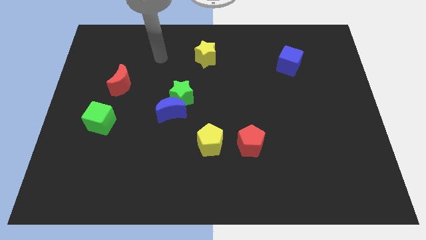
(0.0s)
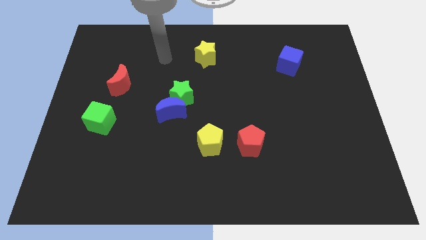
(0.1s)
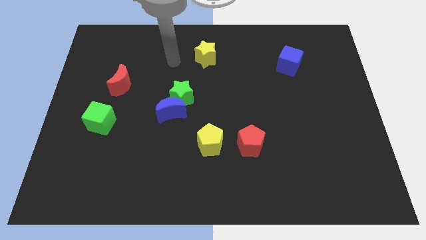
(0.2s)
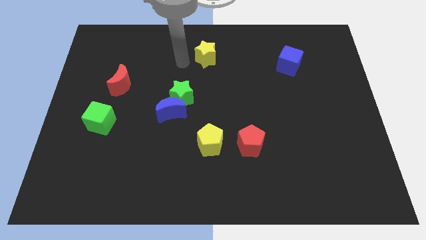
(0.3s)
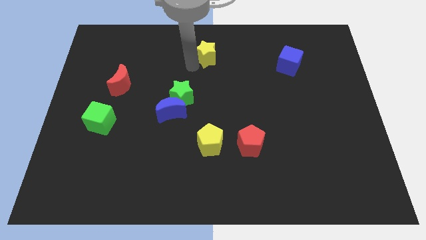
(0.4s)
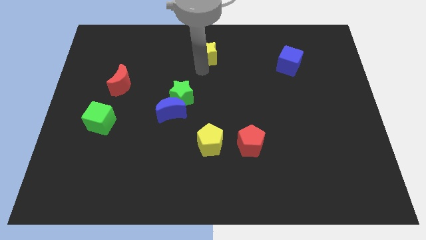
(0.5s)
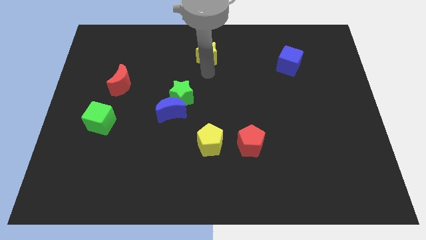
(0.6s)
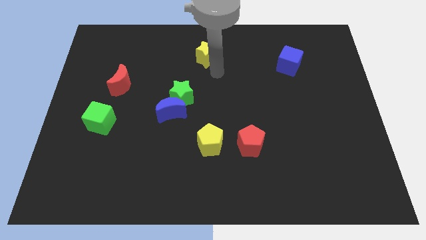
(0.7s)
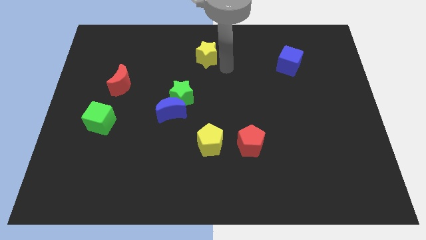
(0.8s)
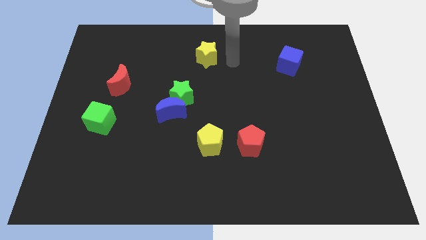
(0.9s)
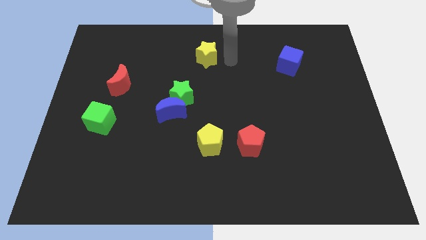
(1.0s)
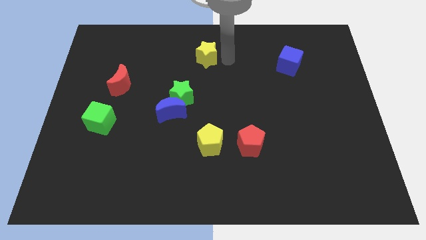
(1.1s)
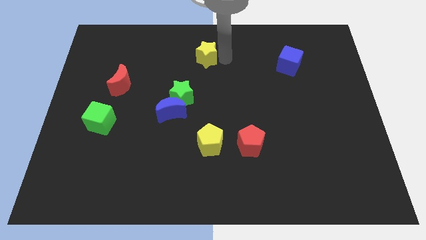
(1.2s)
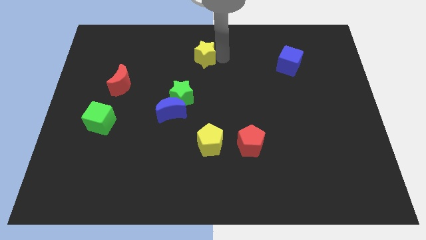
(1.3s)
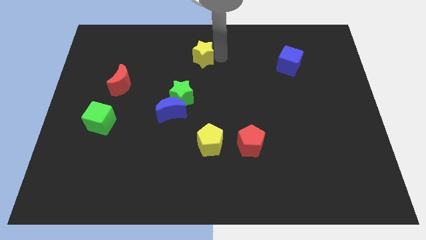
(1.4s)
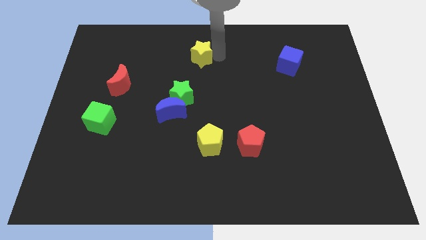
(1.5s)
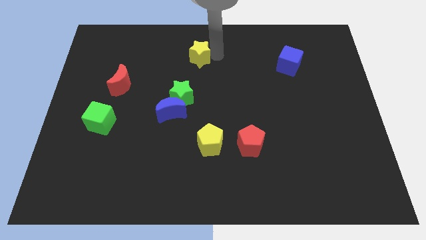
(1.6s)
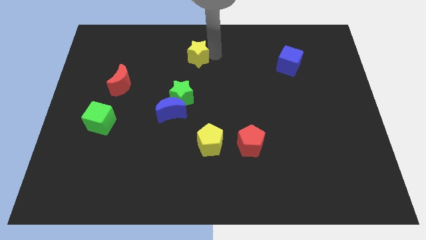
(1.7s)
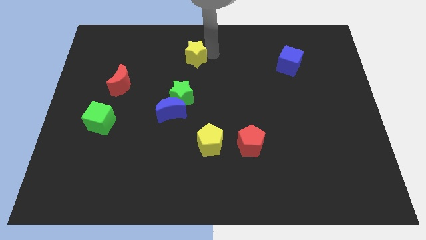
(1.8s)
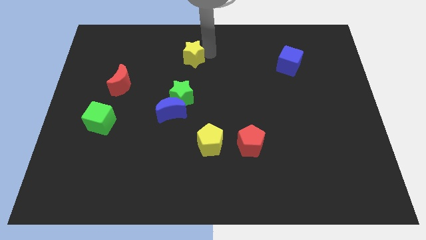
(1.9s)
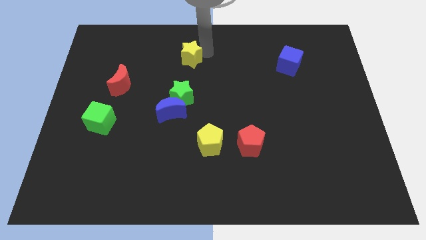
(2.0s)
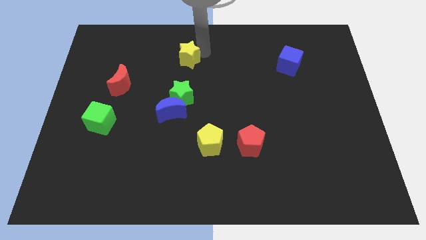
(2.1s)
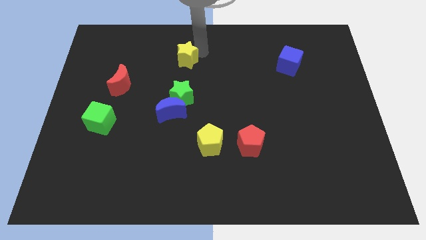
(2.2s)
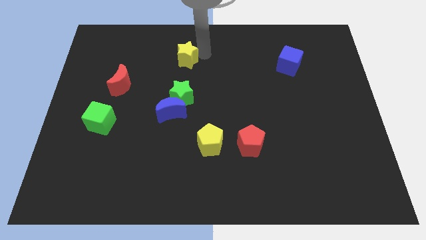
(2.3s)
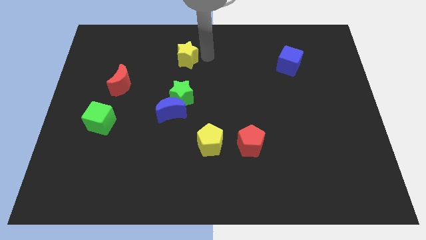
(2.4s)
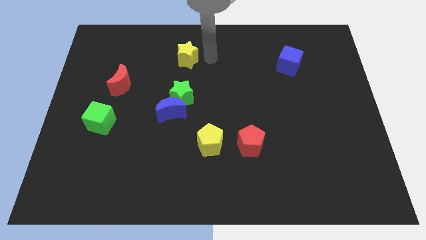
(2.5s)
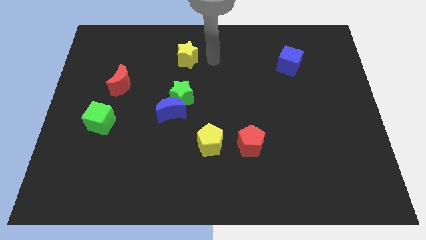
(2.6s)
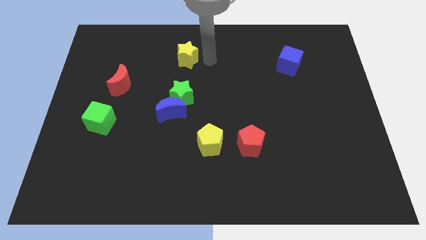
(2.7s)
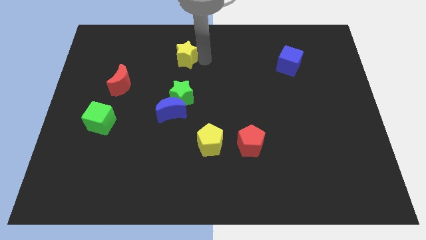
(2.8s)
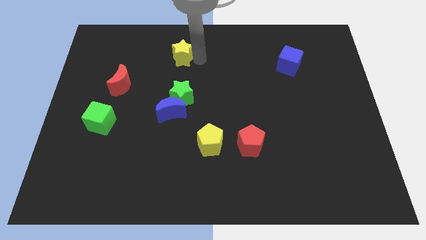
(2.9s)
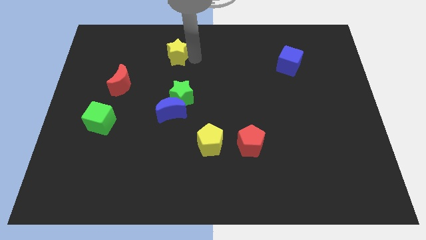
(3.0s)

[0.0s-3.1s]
move the yellow star a little bit left

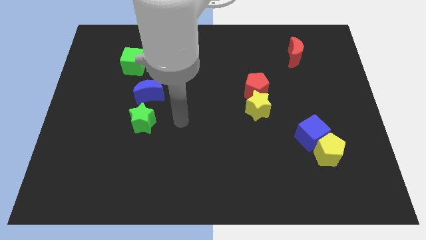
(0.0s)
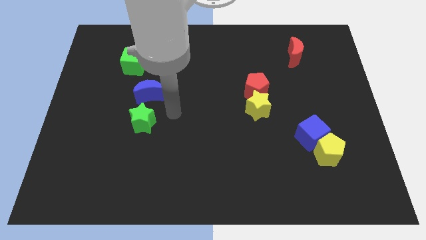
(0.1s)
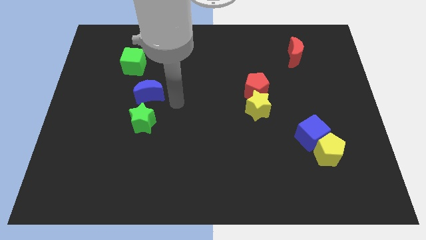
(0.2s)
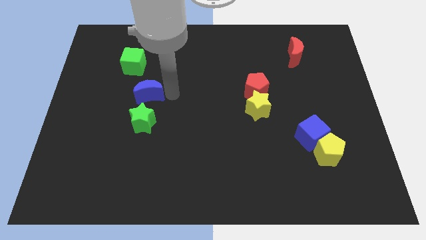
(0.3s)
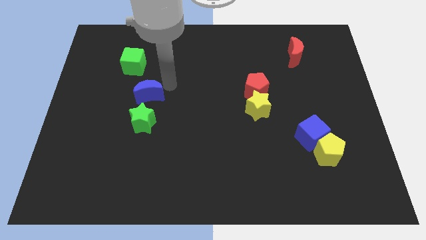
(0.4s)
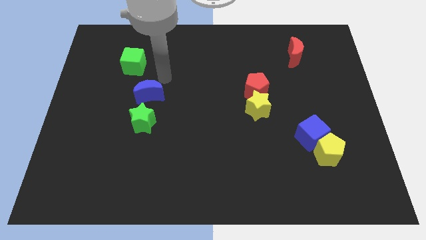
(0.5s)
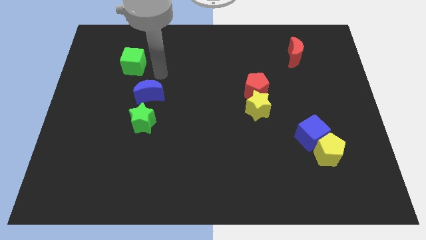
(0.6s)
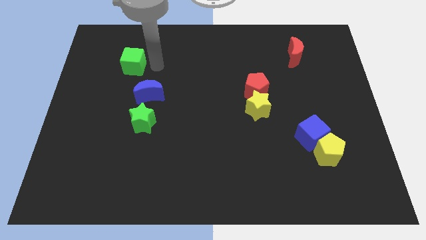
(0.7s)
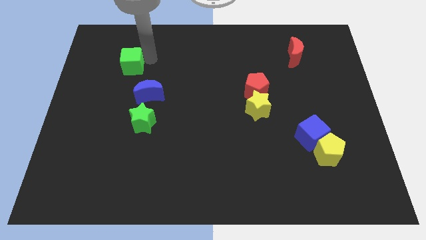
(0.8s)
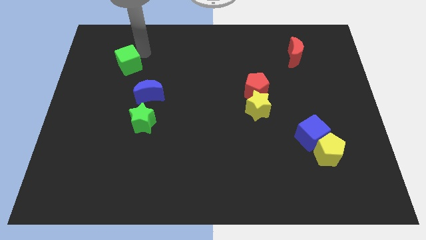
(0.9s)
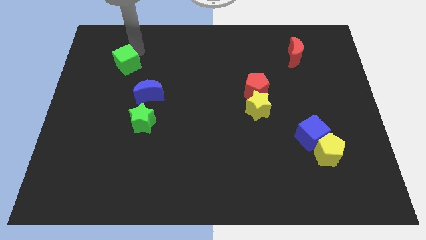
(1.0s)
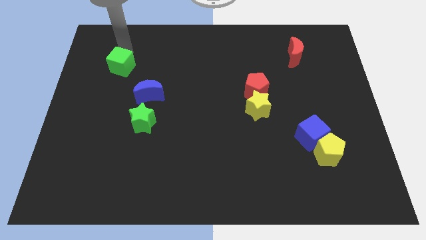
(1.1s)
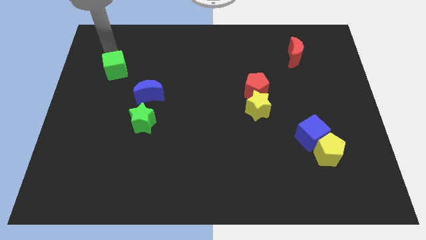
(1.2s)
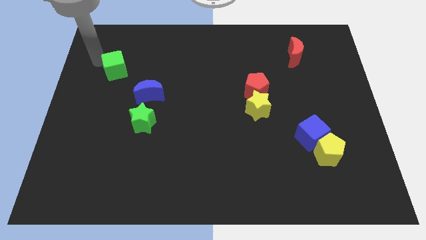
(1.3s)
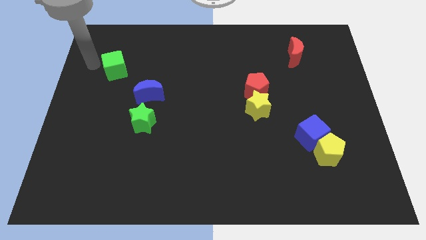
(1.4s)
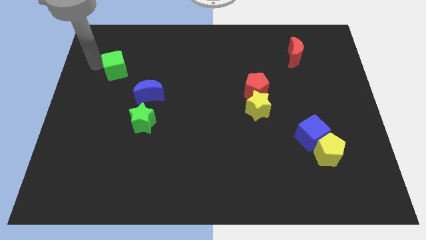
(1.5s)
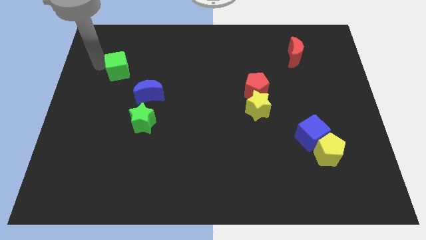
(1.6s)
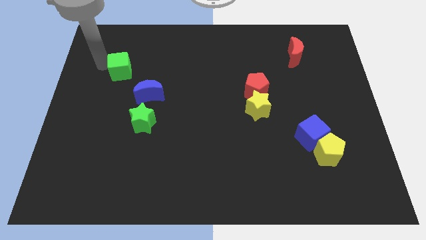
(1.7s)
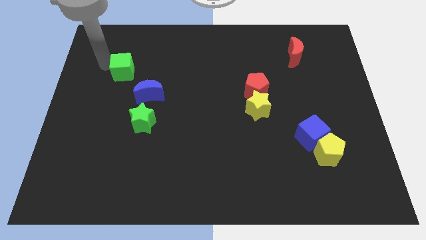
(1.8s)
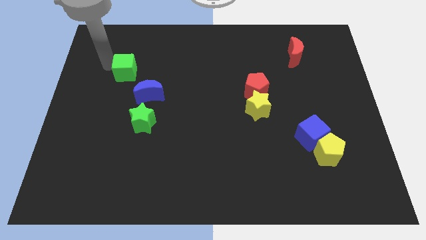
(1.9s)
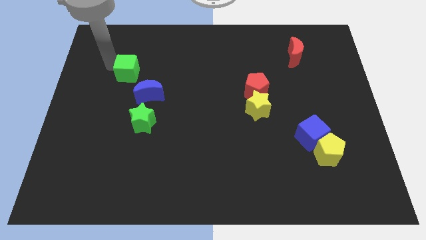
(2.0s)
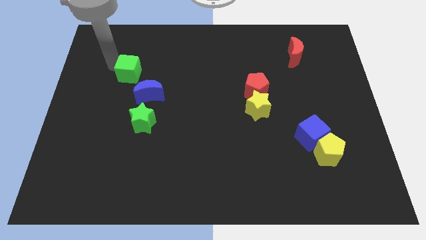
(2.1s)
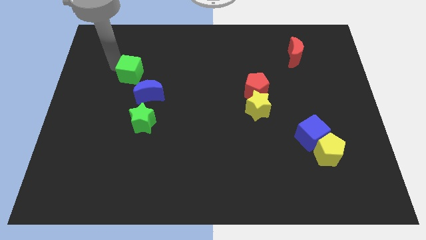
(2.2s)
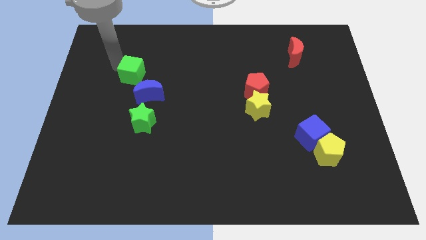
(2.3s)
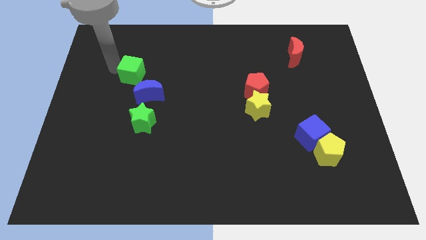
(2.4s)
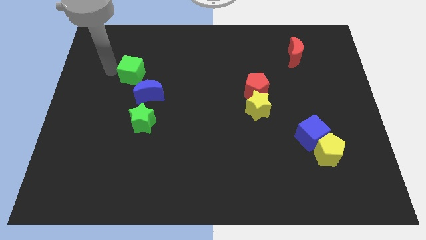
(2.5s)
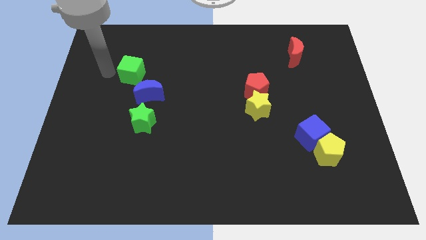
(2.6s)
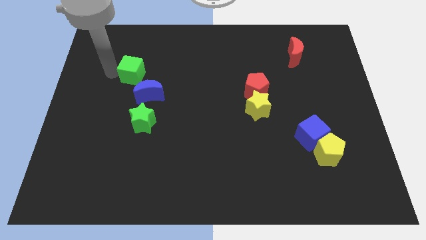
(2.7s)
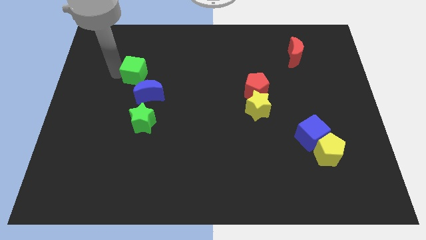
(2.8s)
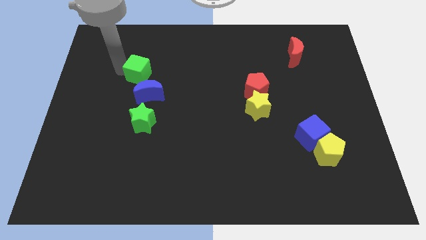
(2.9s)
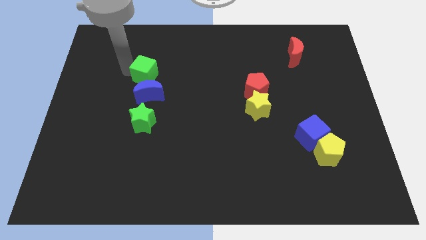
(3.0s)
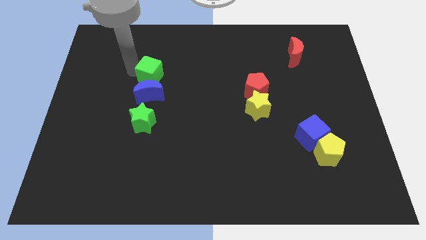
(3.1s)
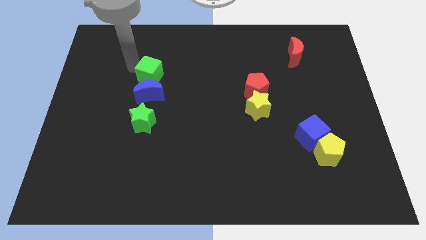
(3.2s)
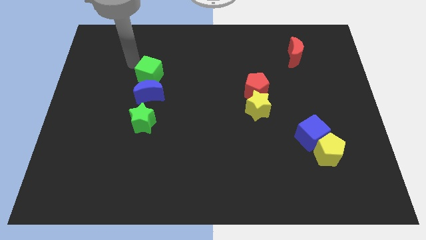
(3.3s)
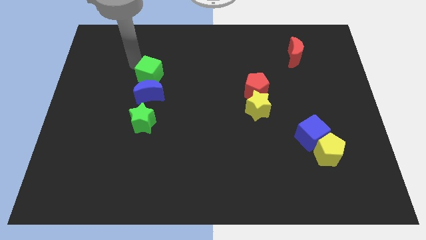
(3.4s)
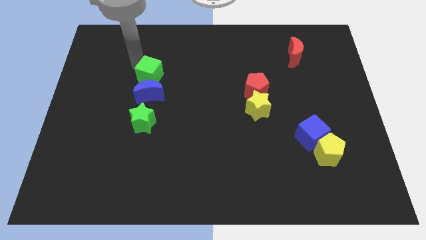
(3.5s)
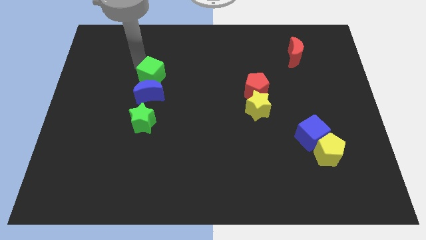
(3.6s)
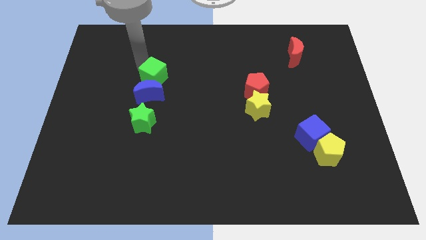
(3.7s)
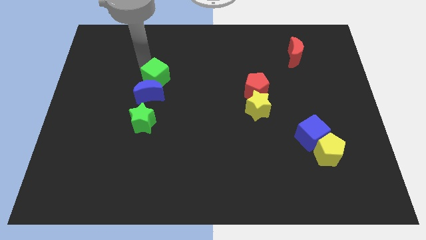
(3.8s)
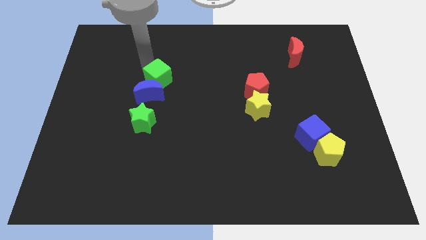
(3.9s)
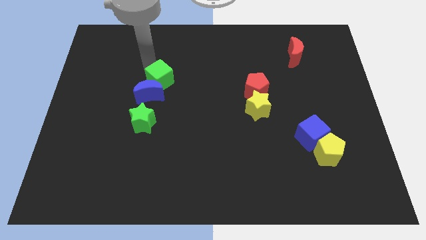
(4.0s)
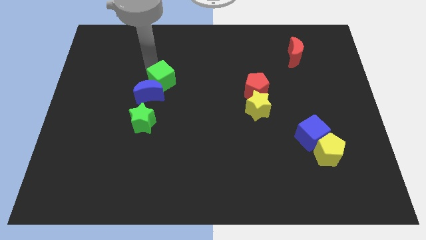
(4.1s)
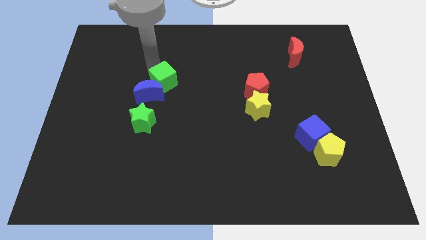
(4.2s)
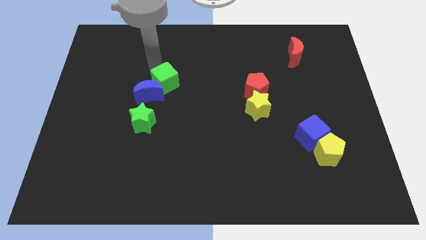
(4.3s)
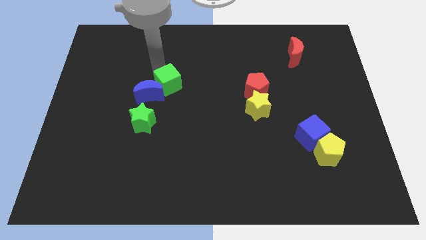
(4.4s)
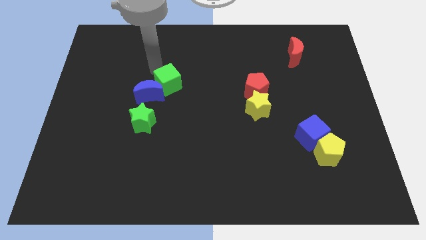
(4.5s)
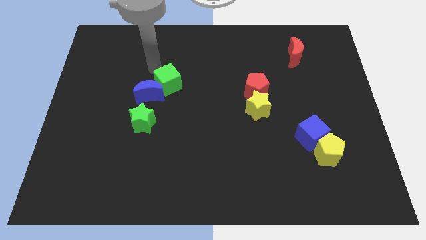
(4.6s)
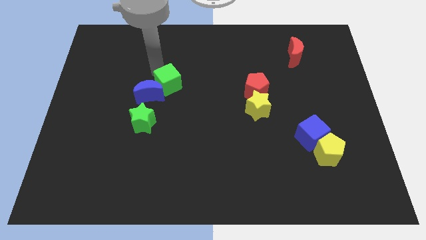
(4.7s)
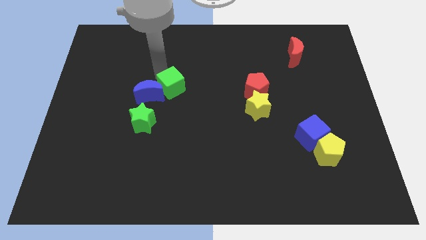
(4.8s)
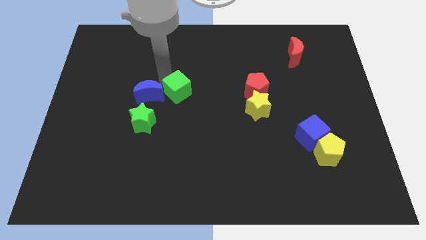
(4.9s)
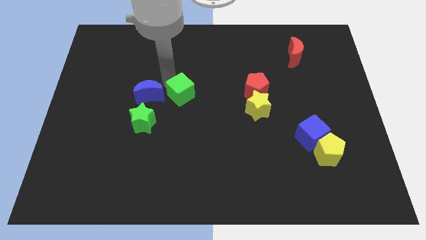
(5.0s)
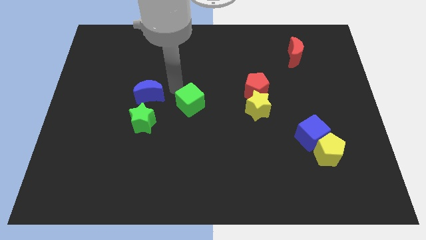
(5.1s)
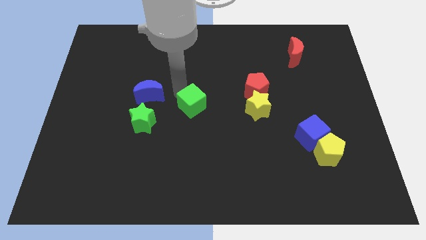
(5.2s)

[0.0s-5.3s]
push the green cube down and then to the right

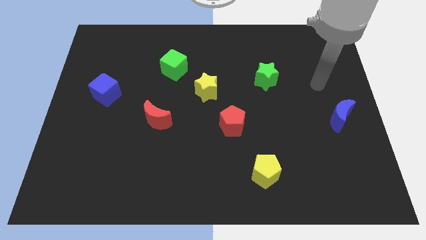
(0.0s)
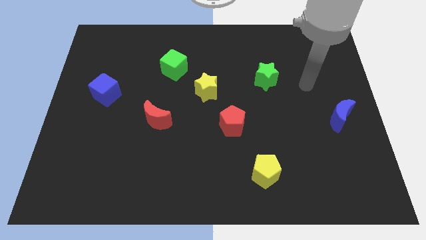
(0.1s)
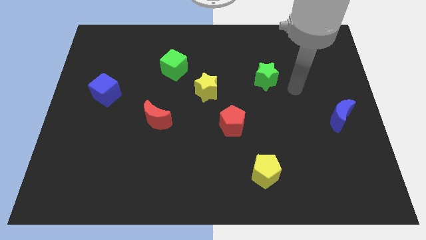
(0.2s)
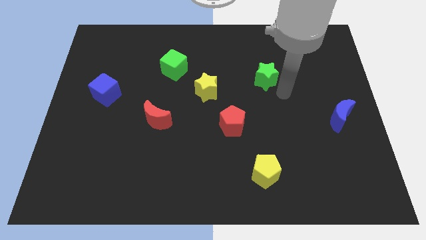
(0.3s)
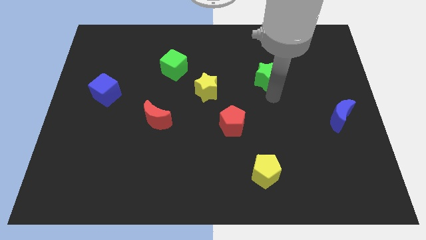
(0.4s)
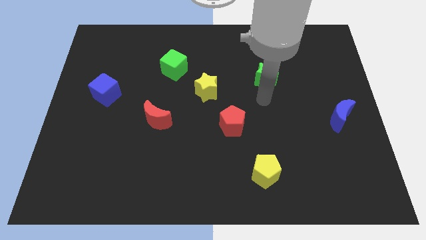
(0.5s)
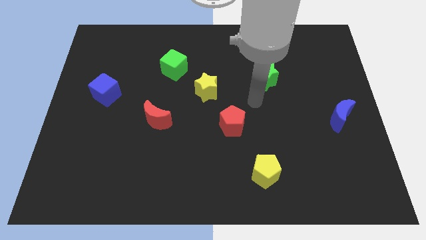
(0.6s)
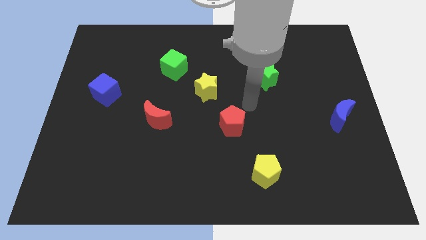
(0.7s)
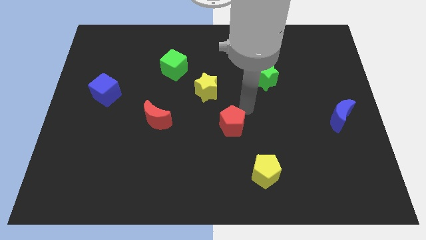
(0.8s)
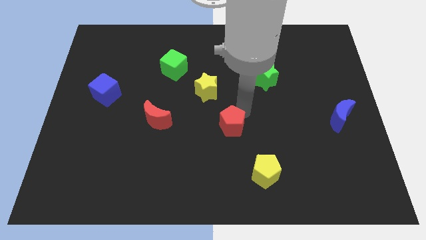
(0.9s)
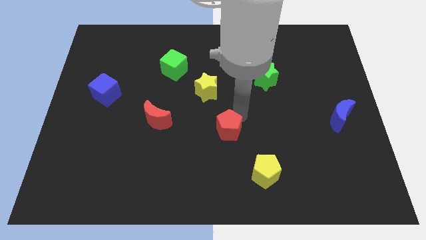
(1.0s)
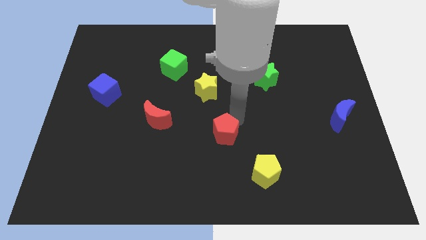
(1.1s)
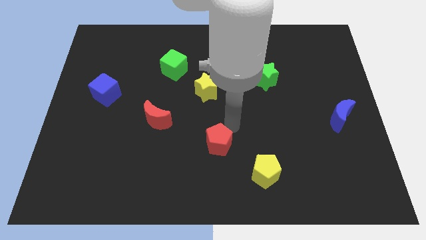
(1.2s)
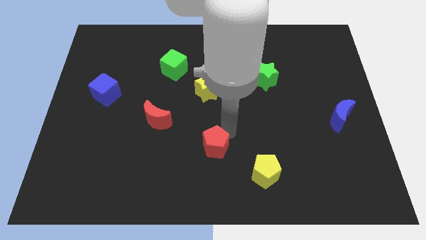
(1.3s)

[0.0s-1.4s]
push the red pentagon downwards and left diagonally a little
